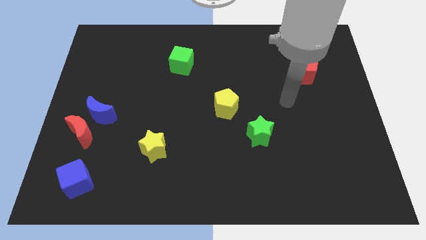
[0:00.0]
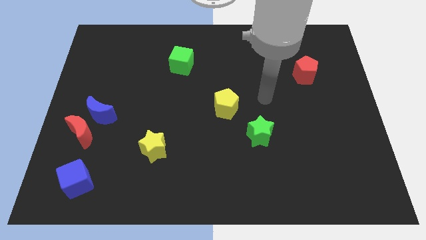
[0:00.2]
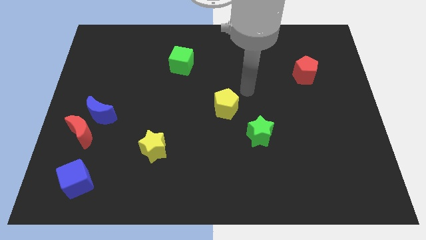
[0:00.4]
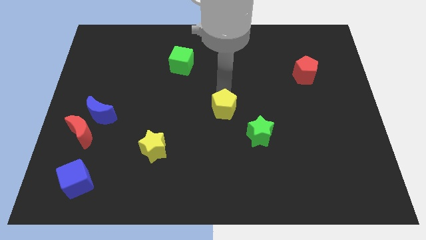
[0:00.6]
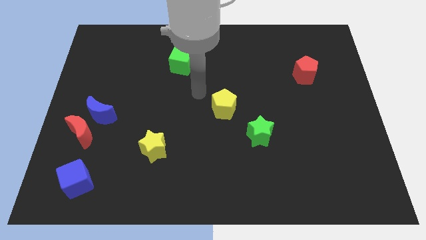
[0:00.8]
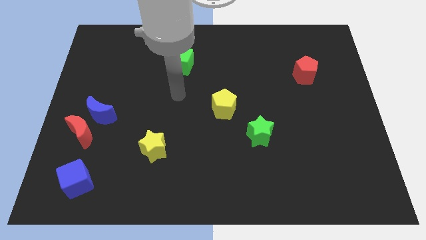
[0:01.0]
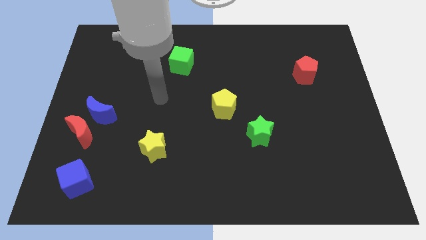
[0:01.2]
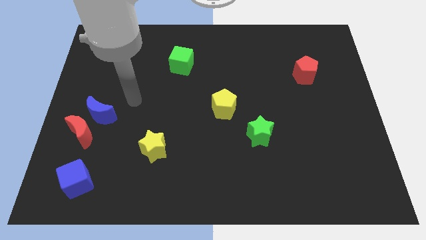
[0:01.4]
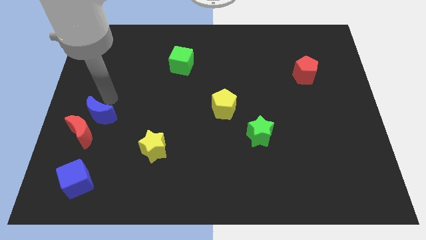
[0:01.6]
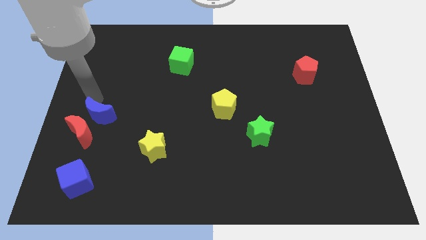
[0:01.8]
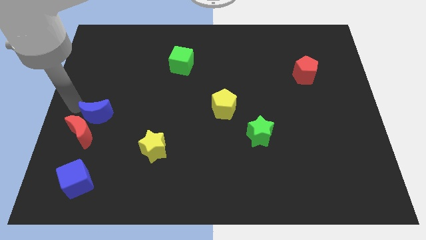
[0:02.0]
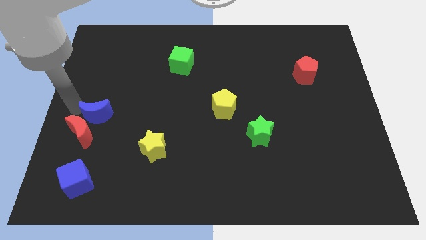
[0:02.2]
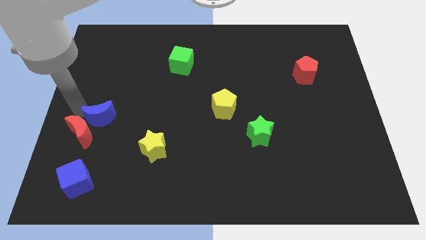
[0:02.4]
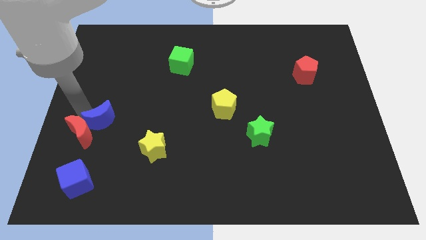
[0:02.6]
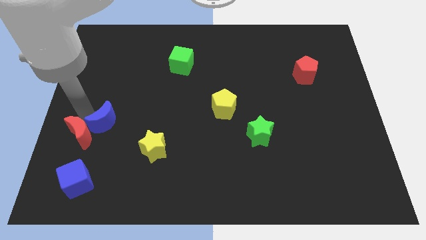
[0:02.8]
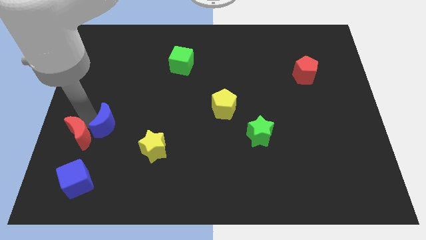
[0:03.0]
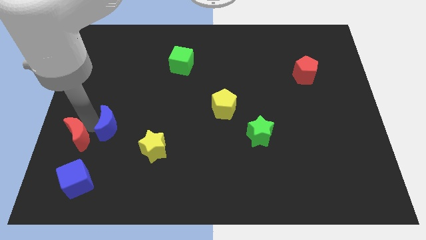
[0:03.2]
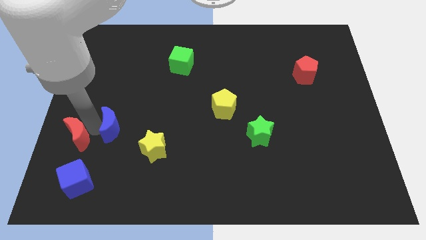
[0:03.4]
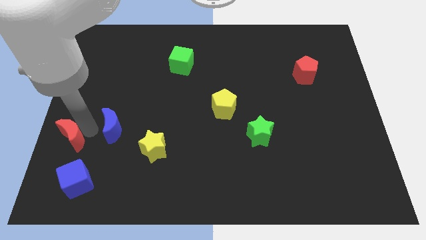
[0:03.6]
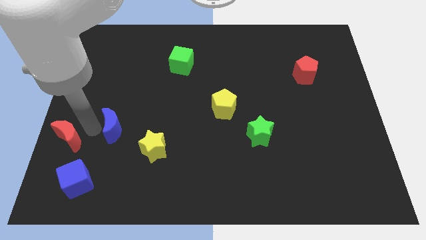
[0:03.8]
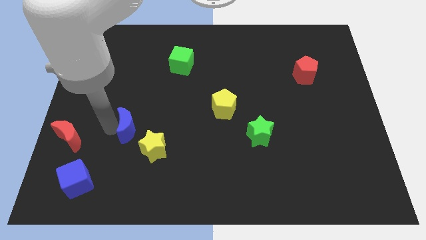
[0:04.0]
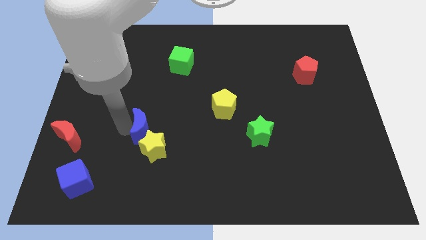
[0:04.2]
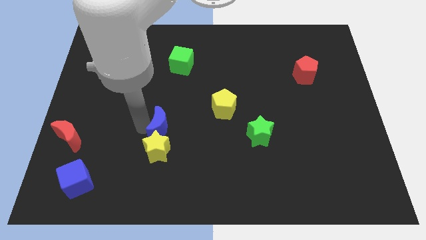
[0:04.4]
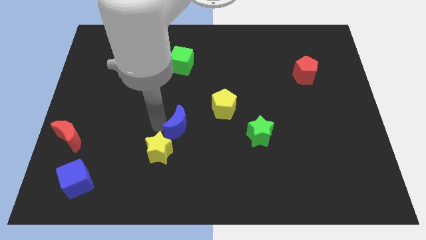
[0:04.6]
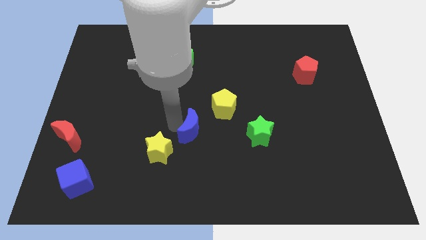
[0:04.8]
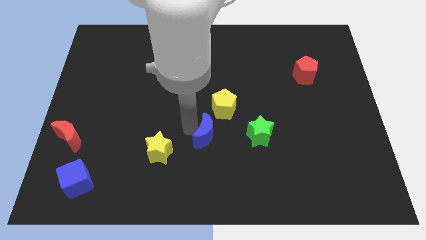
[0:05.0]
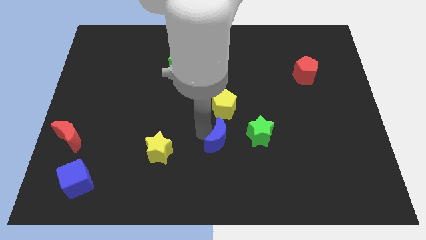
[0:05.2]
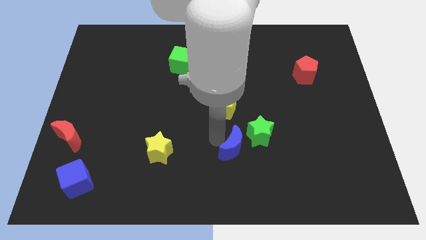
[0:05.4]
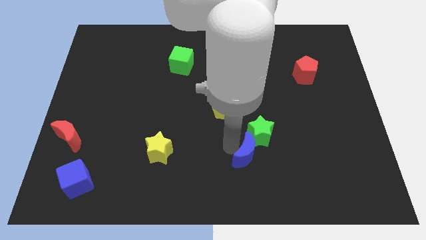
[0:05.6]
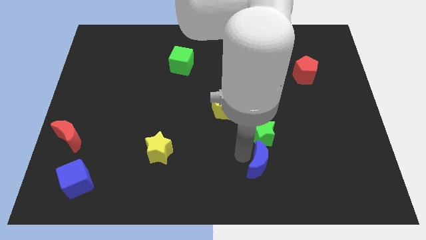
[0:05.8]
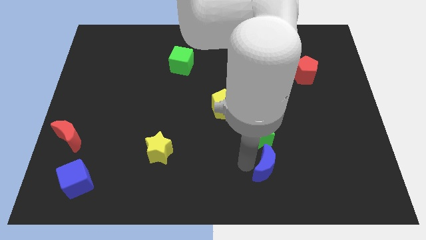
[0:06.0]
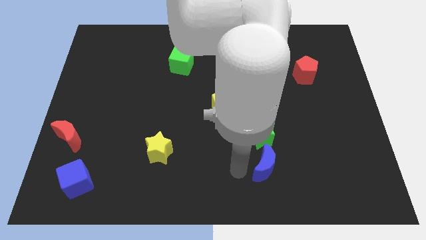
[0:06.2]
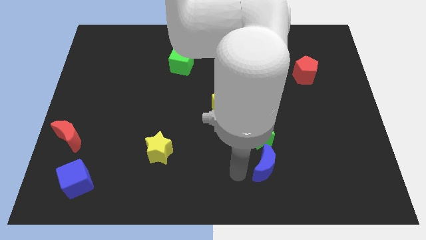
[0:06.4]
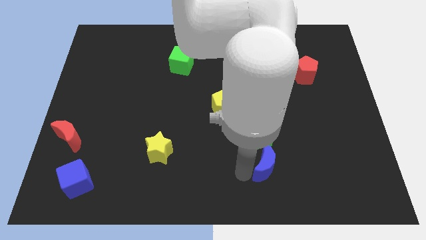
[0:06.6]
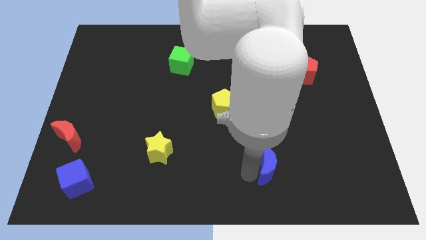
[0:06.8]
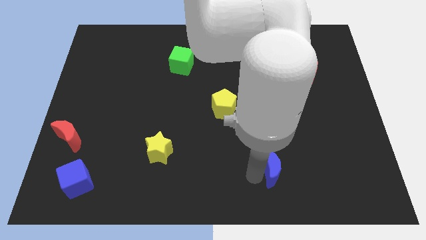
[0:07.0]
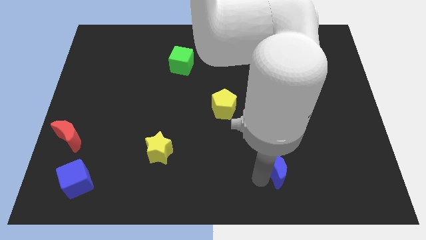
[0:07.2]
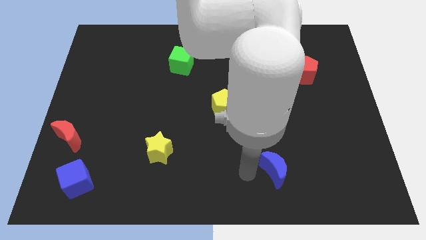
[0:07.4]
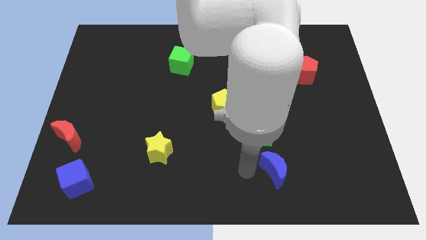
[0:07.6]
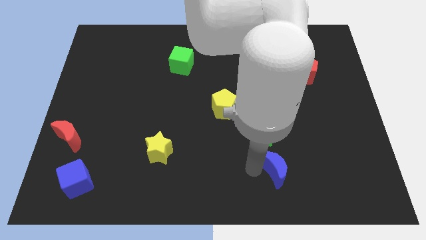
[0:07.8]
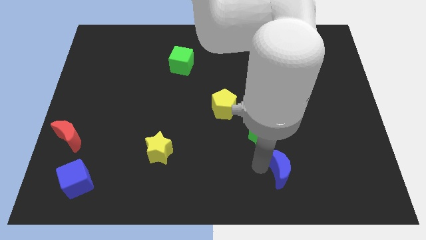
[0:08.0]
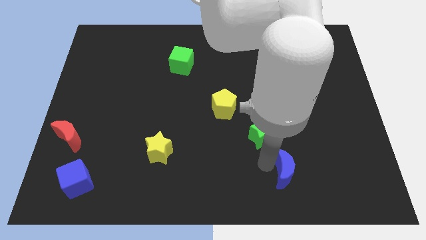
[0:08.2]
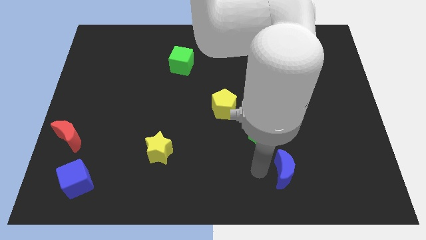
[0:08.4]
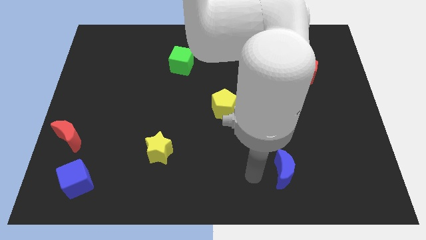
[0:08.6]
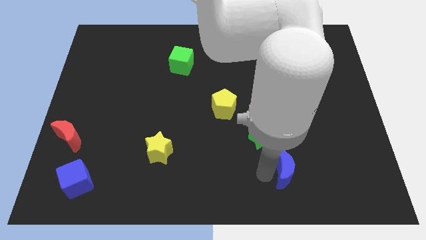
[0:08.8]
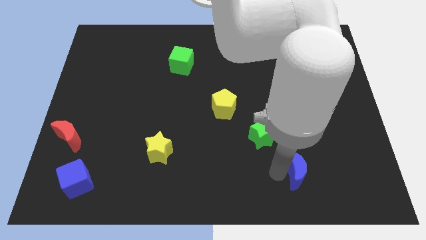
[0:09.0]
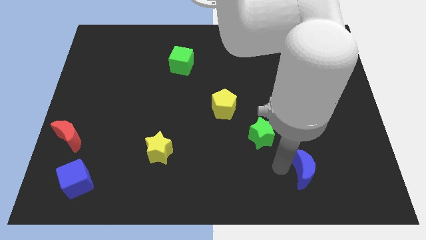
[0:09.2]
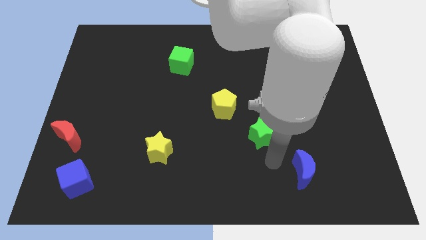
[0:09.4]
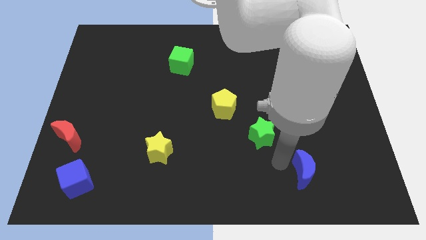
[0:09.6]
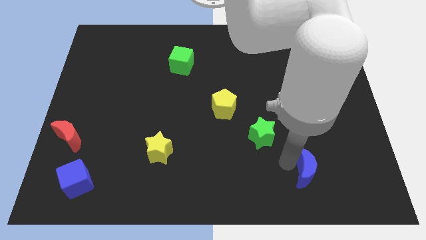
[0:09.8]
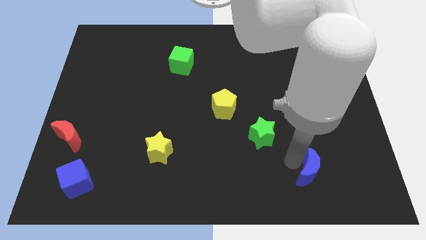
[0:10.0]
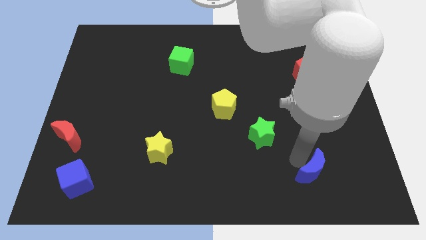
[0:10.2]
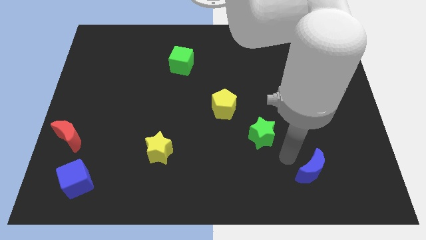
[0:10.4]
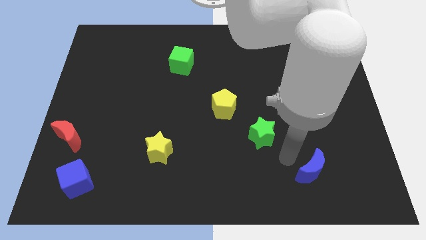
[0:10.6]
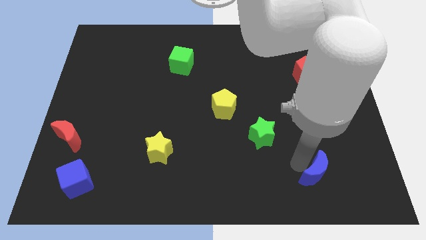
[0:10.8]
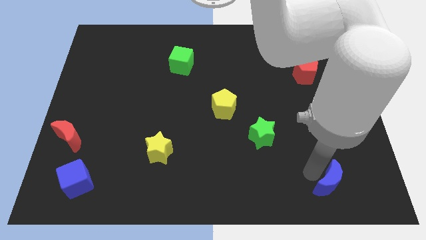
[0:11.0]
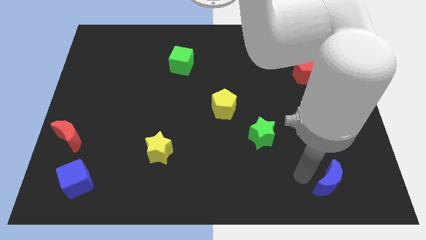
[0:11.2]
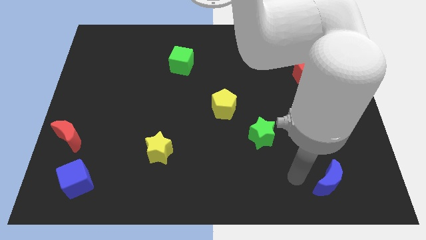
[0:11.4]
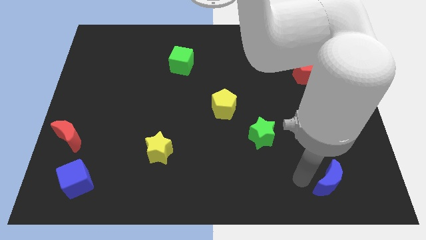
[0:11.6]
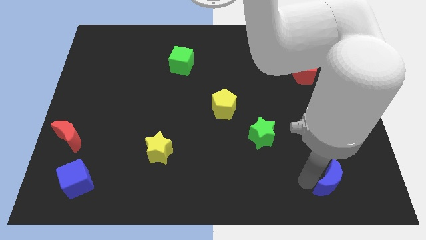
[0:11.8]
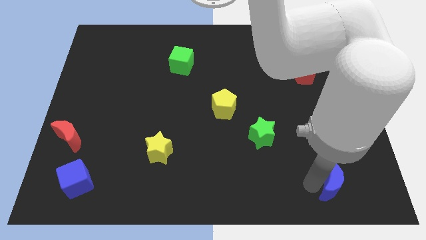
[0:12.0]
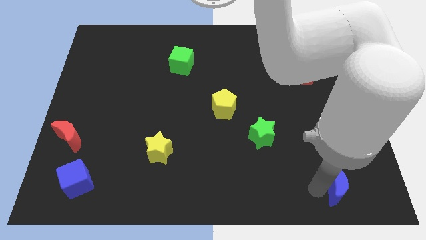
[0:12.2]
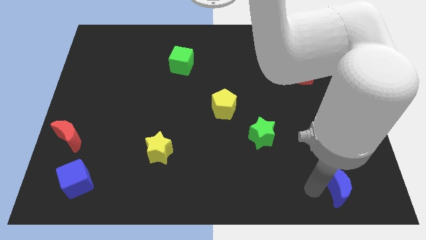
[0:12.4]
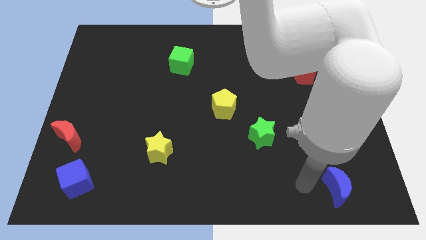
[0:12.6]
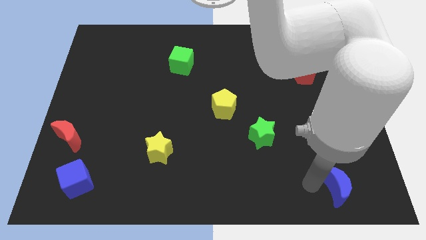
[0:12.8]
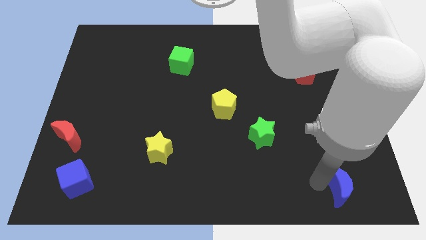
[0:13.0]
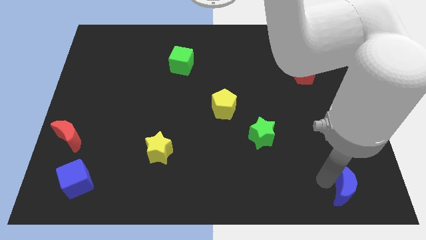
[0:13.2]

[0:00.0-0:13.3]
push the blue moon to the bottom right corner
